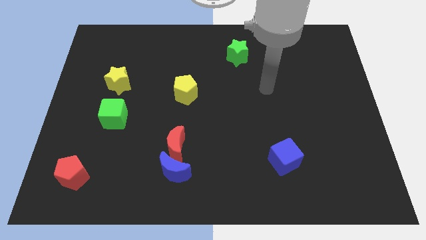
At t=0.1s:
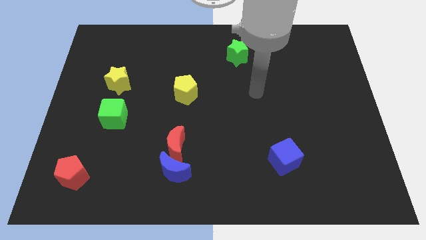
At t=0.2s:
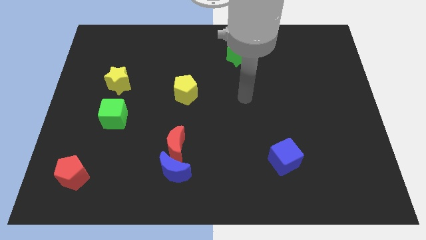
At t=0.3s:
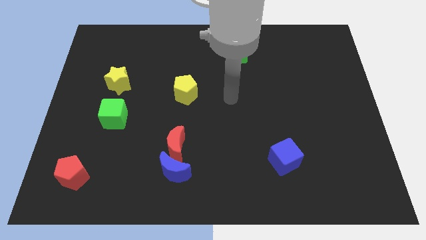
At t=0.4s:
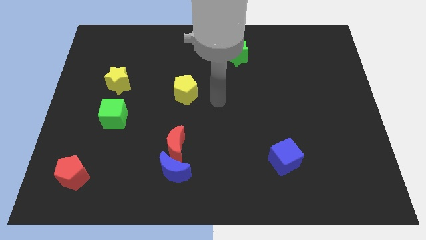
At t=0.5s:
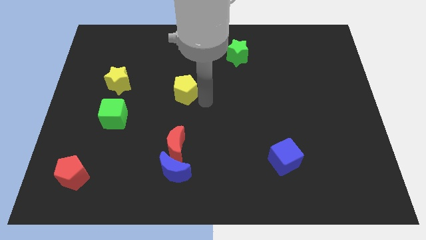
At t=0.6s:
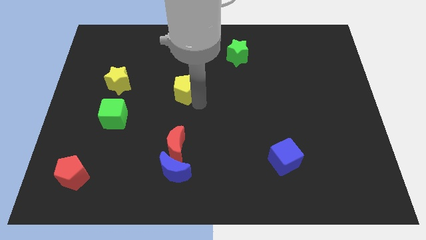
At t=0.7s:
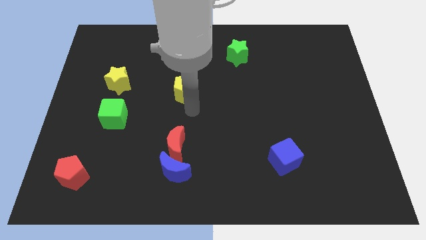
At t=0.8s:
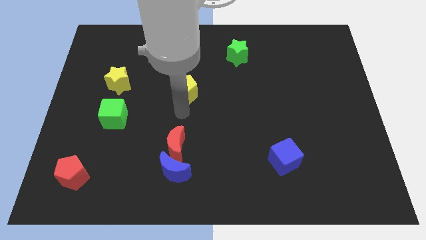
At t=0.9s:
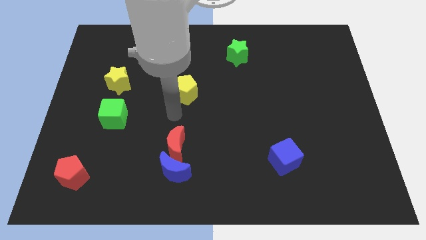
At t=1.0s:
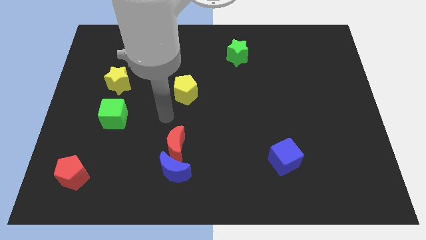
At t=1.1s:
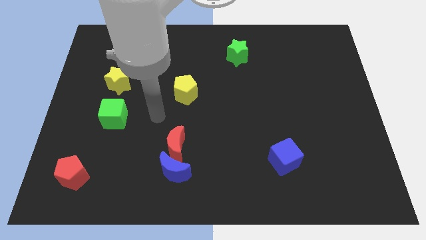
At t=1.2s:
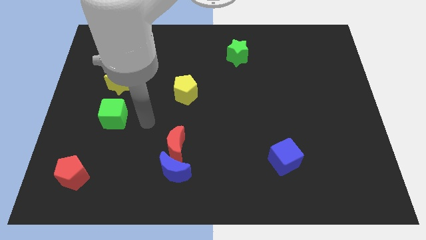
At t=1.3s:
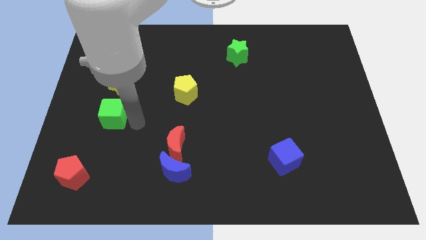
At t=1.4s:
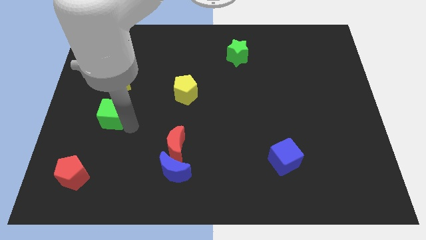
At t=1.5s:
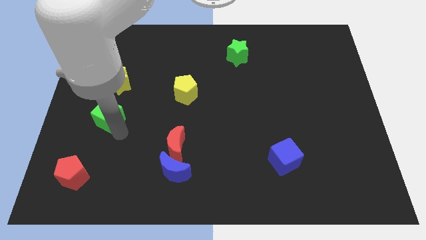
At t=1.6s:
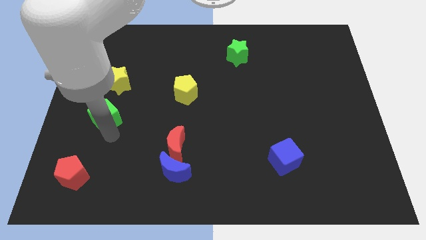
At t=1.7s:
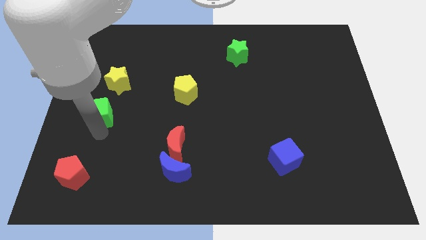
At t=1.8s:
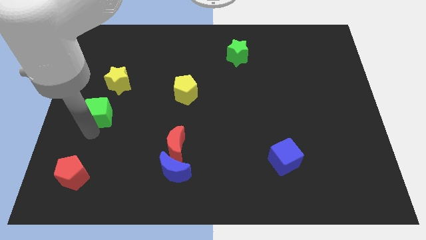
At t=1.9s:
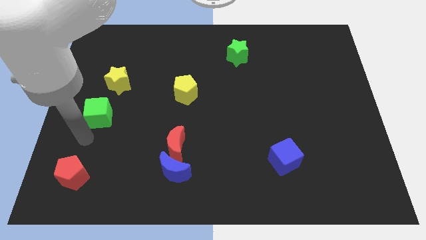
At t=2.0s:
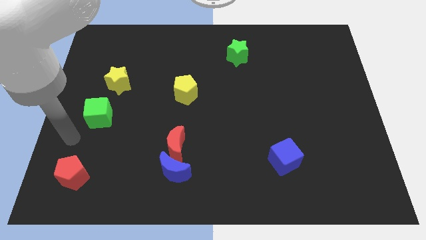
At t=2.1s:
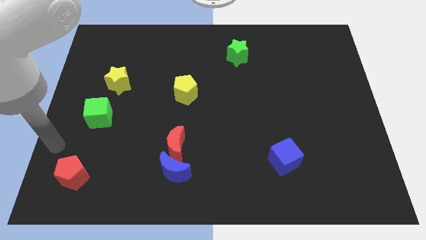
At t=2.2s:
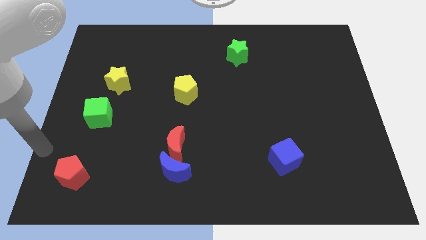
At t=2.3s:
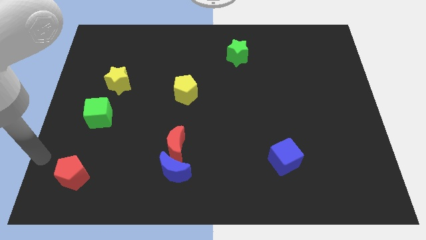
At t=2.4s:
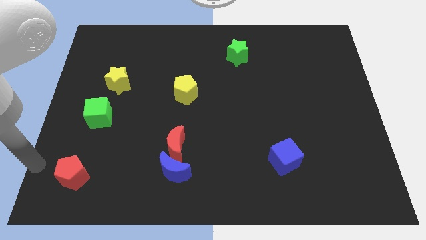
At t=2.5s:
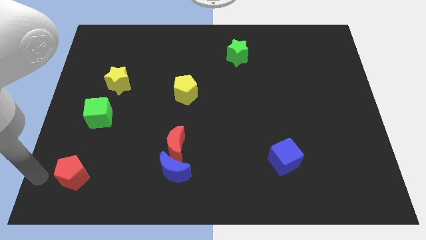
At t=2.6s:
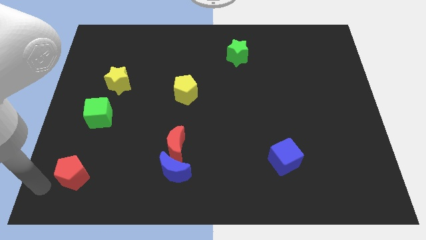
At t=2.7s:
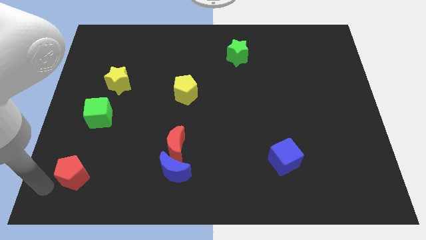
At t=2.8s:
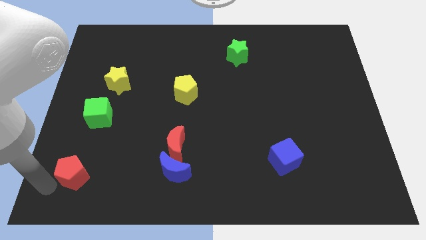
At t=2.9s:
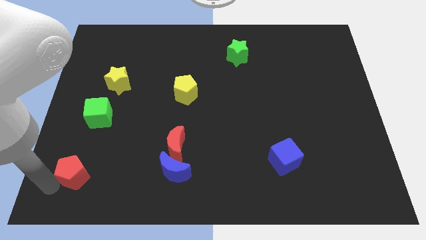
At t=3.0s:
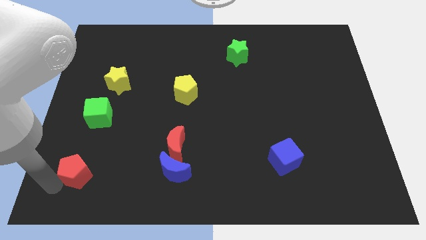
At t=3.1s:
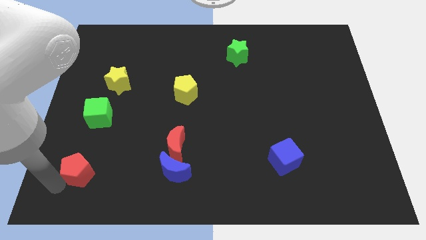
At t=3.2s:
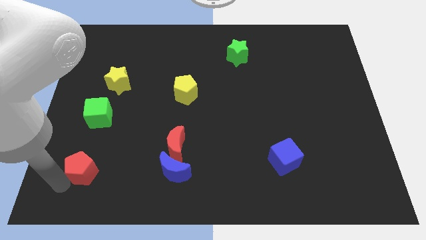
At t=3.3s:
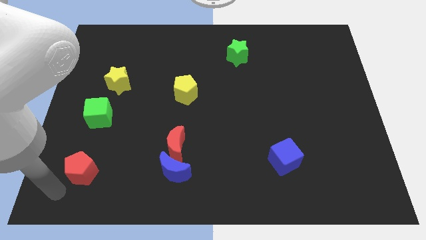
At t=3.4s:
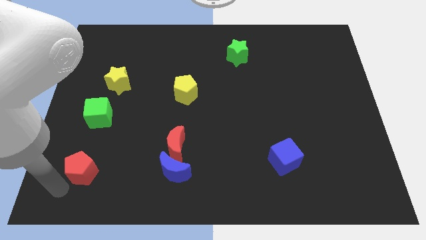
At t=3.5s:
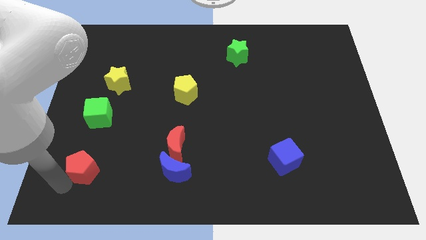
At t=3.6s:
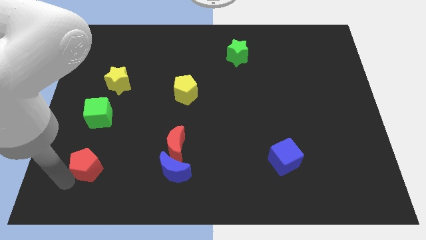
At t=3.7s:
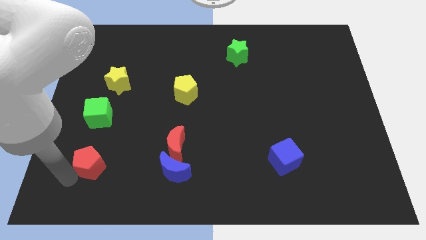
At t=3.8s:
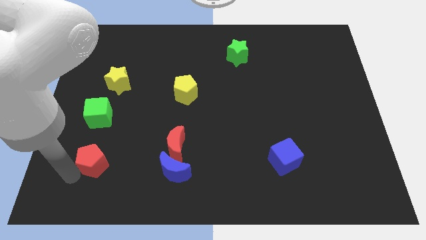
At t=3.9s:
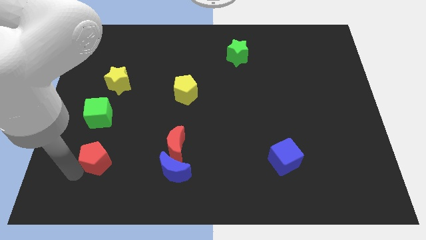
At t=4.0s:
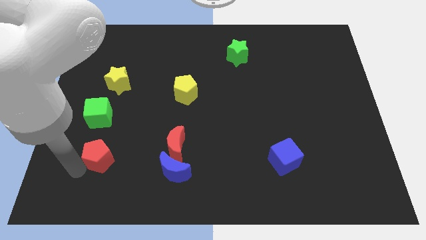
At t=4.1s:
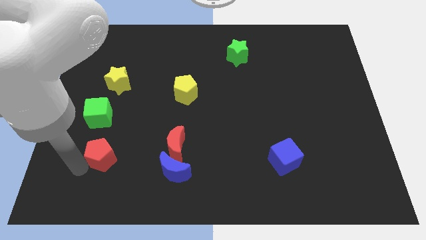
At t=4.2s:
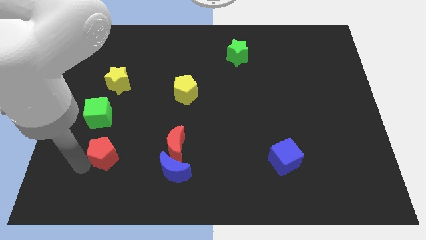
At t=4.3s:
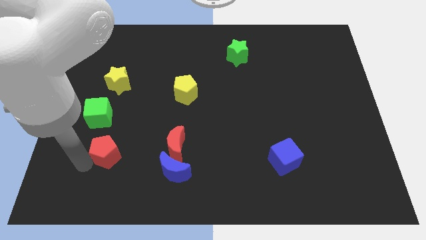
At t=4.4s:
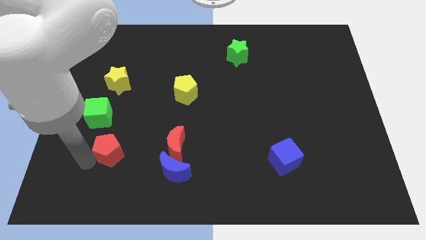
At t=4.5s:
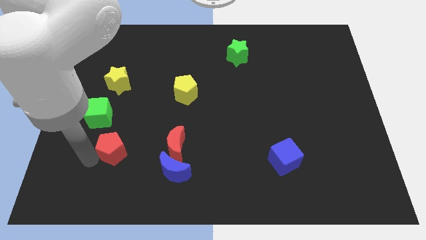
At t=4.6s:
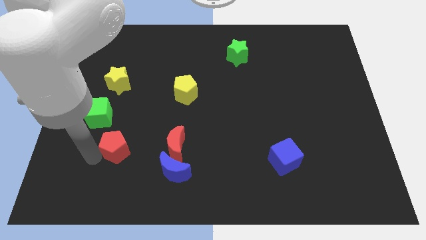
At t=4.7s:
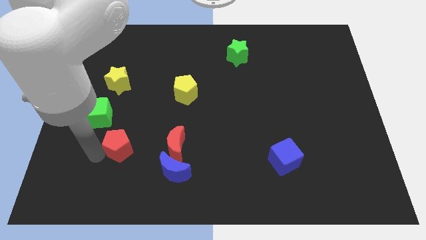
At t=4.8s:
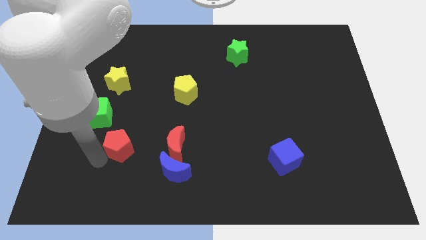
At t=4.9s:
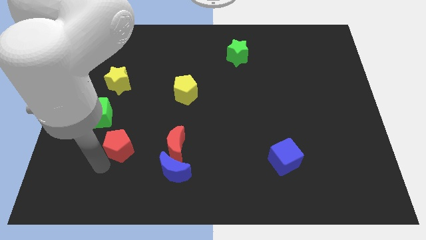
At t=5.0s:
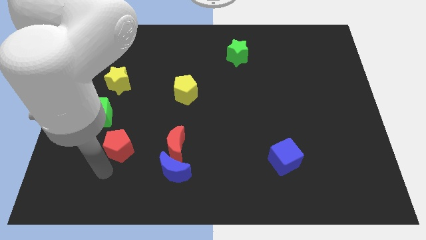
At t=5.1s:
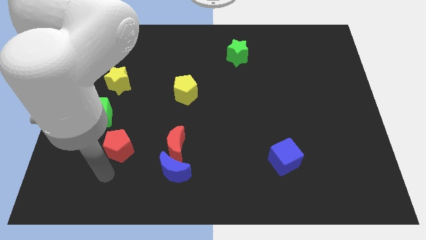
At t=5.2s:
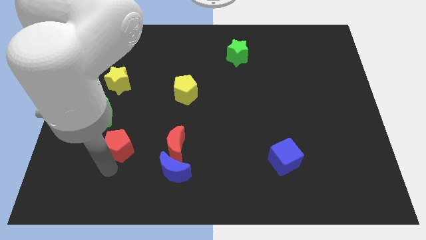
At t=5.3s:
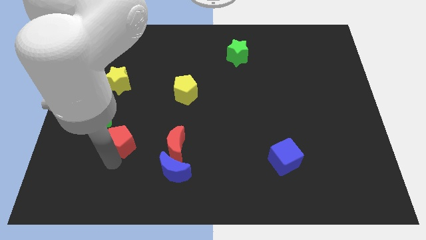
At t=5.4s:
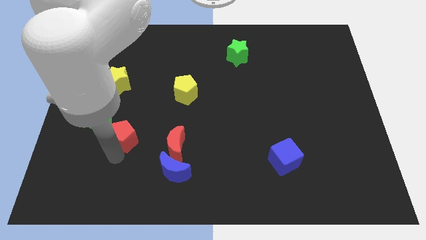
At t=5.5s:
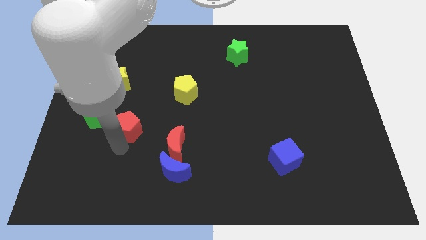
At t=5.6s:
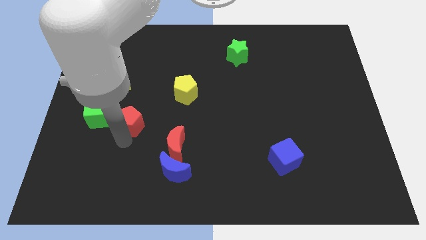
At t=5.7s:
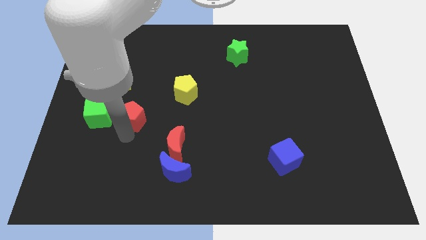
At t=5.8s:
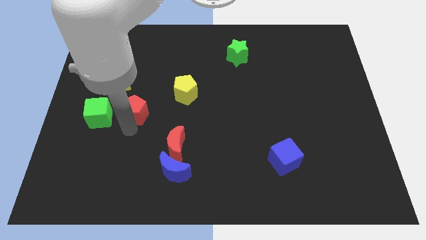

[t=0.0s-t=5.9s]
move the red pentagon to the bottom right of the yellow star
